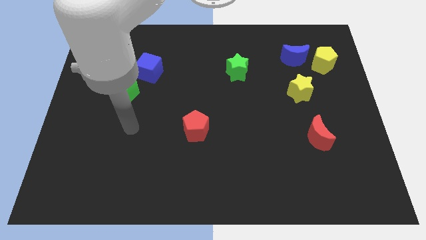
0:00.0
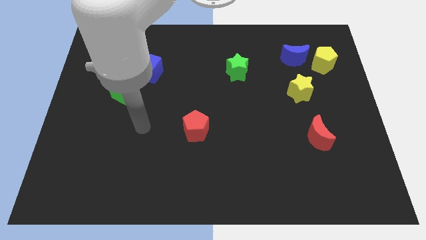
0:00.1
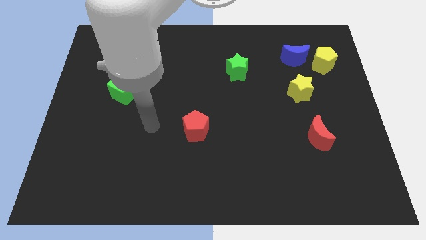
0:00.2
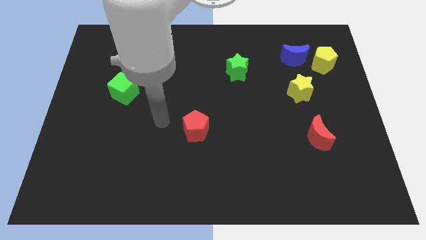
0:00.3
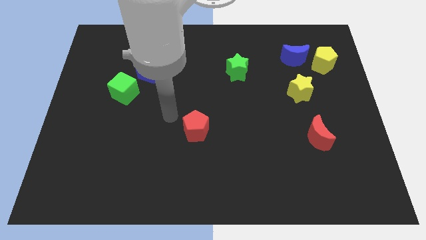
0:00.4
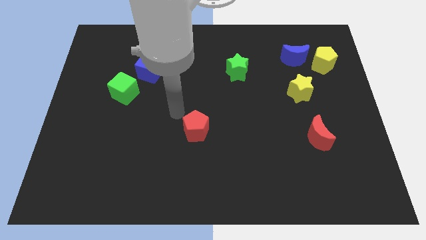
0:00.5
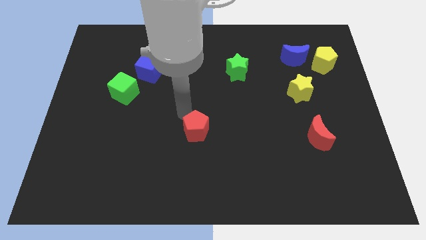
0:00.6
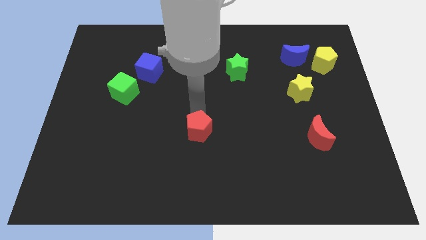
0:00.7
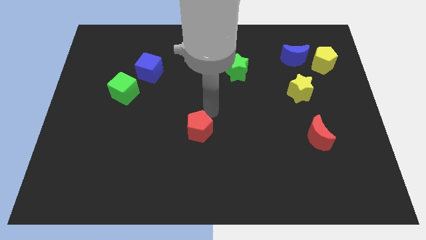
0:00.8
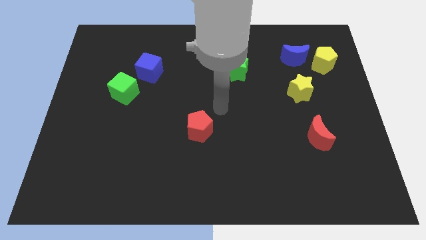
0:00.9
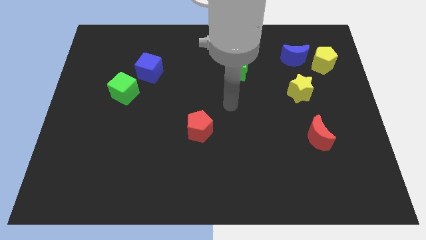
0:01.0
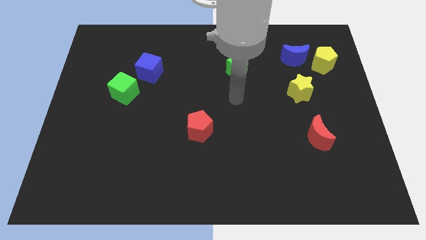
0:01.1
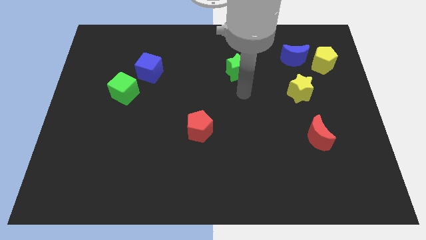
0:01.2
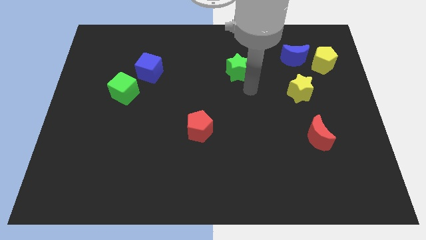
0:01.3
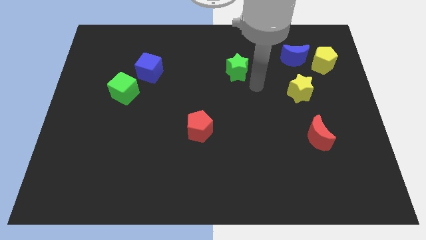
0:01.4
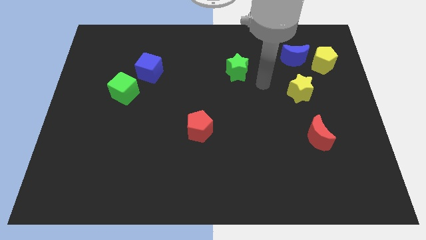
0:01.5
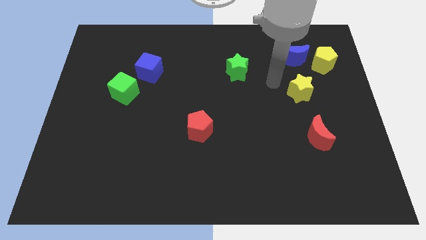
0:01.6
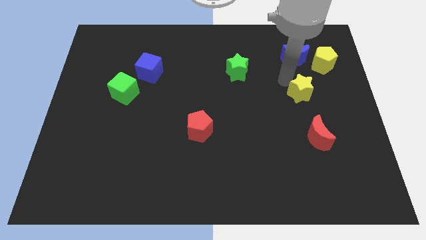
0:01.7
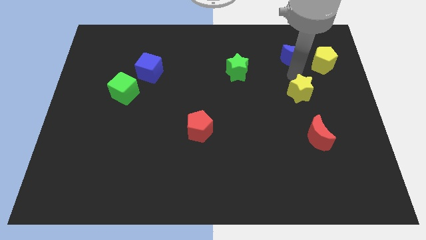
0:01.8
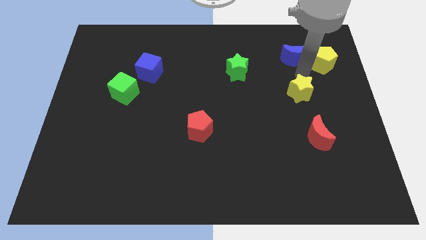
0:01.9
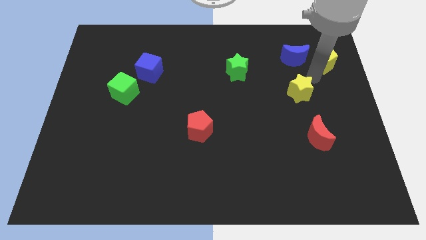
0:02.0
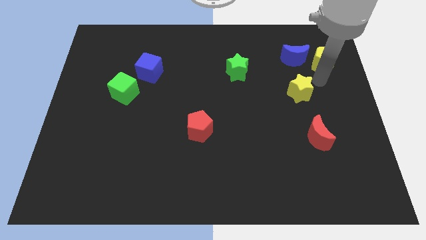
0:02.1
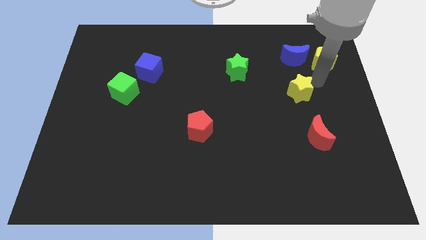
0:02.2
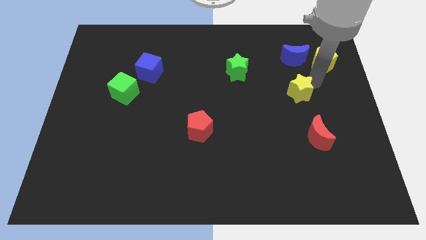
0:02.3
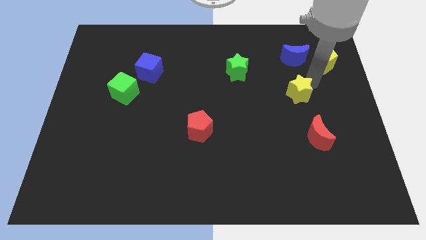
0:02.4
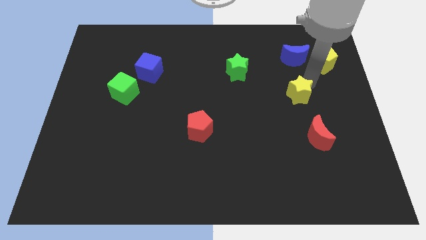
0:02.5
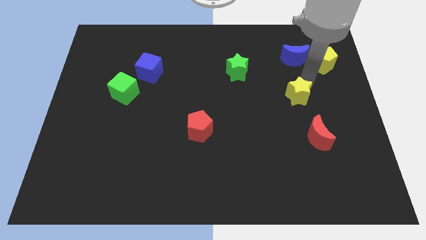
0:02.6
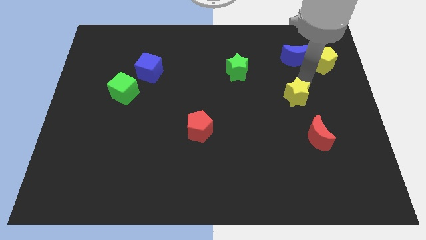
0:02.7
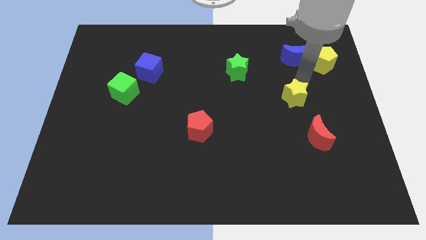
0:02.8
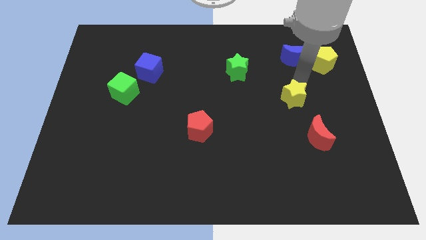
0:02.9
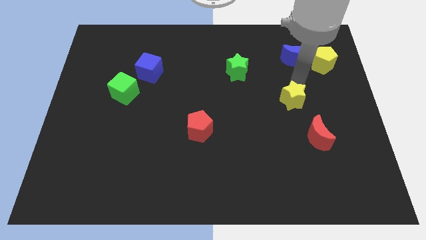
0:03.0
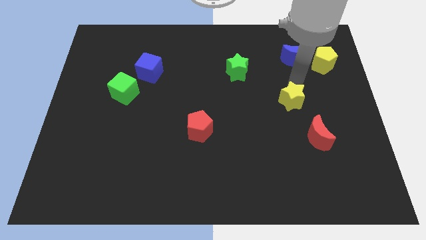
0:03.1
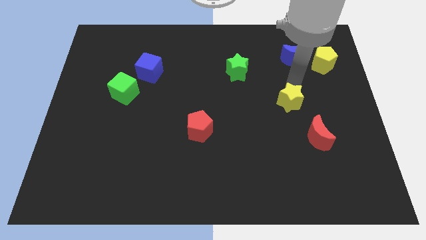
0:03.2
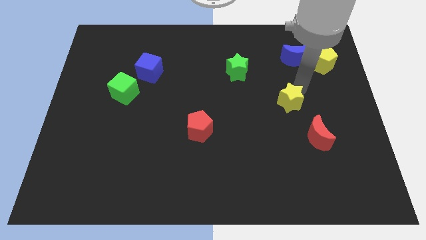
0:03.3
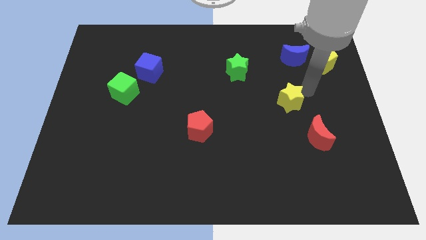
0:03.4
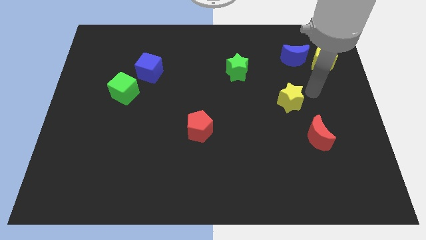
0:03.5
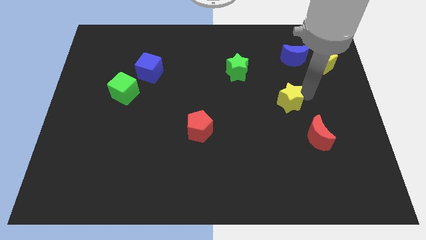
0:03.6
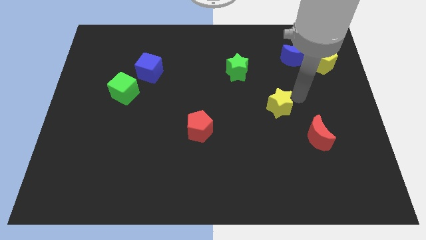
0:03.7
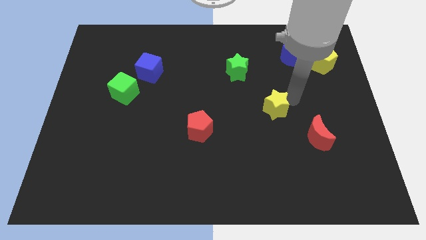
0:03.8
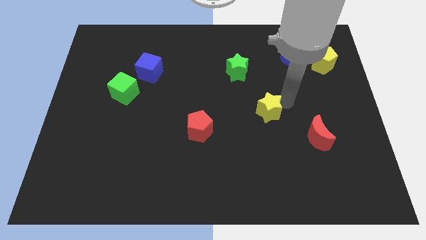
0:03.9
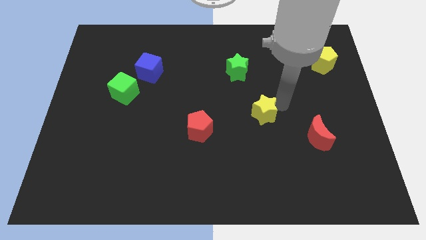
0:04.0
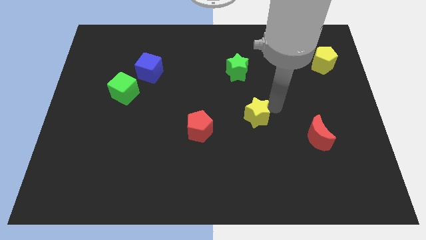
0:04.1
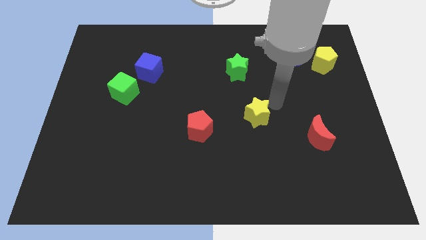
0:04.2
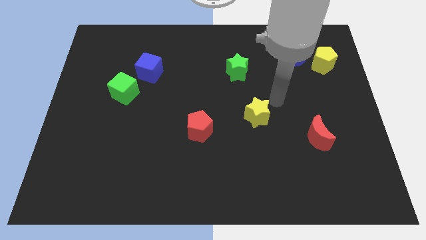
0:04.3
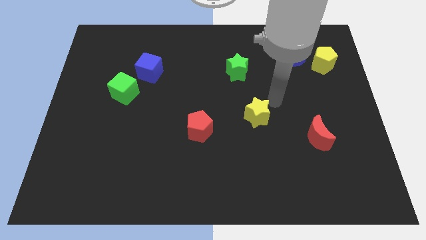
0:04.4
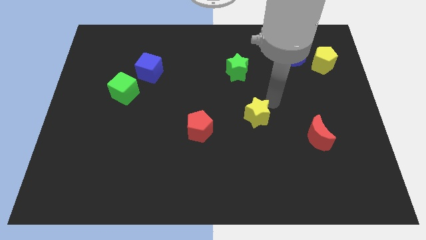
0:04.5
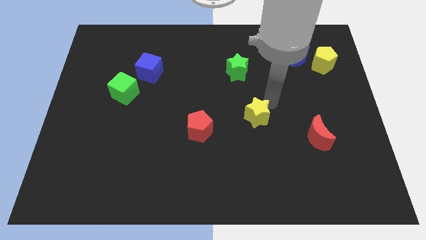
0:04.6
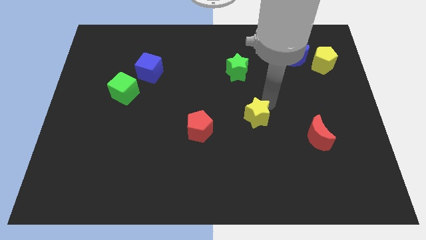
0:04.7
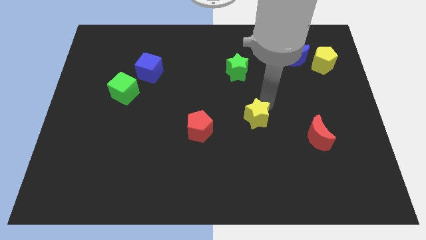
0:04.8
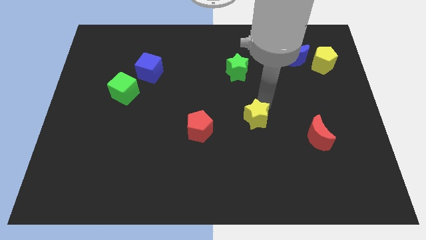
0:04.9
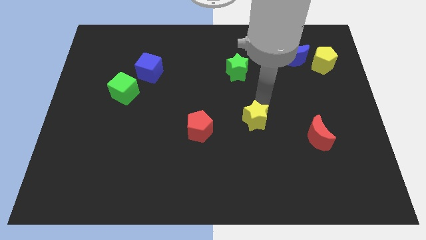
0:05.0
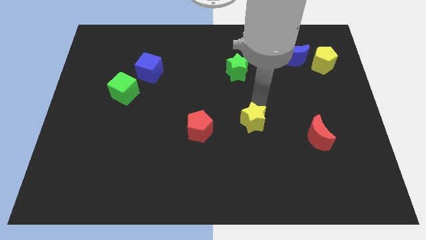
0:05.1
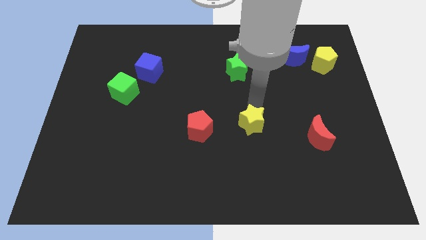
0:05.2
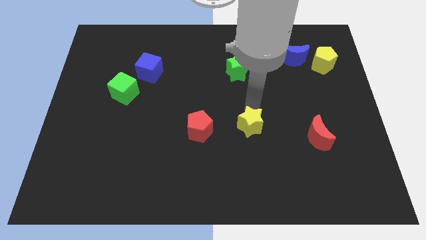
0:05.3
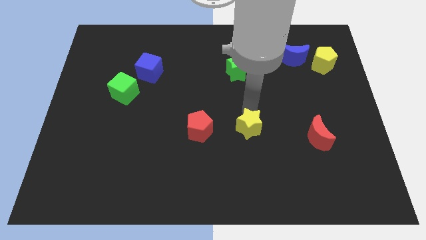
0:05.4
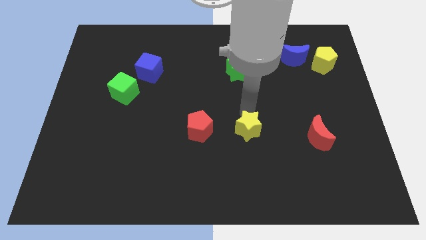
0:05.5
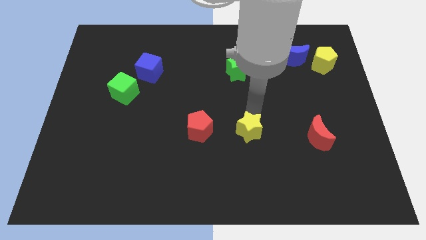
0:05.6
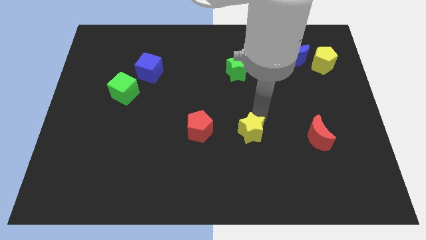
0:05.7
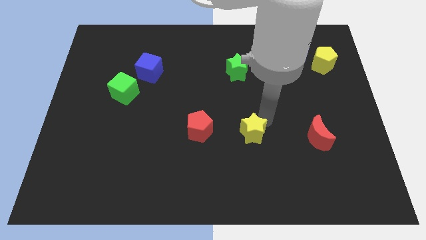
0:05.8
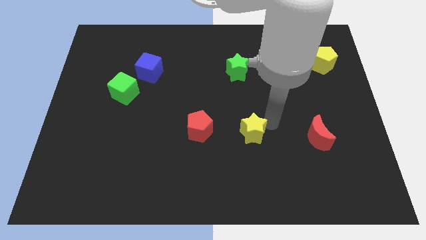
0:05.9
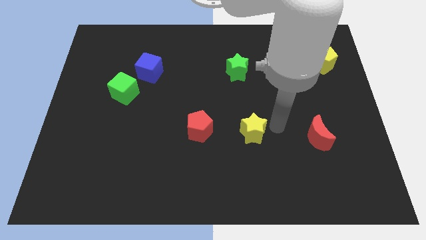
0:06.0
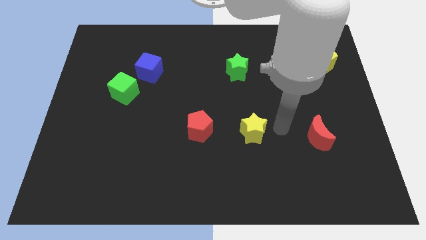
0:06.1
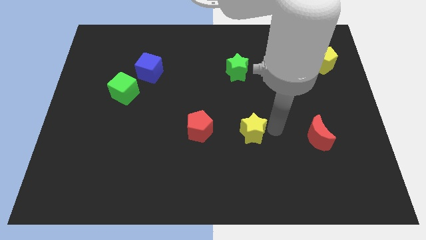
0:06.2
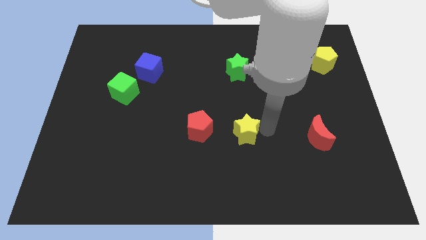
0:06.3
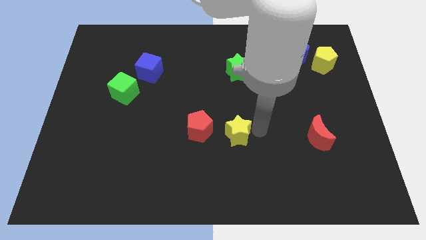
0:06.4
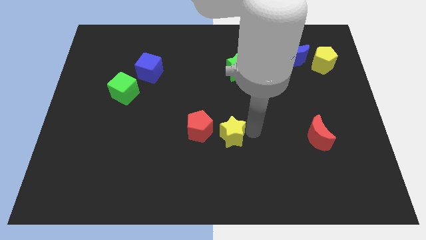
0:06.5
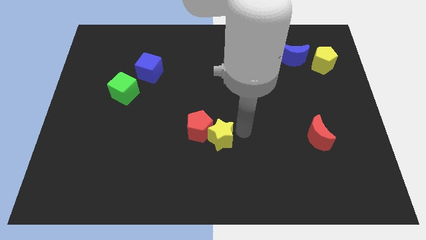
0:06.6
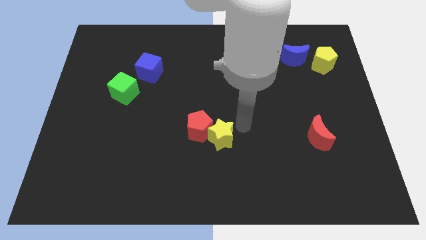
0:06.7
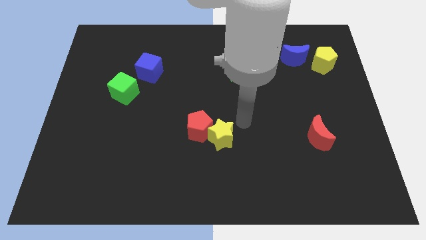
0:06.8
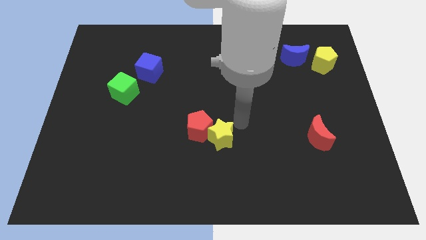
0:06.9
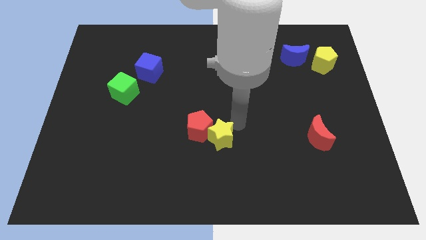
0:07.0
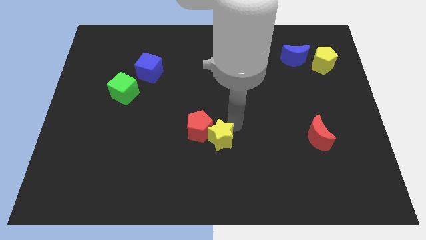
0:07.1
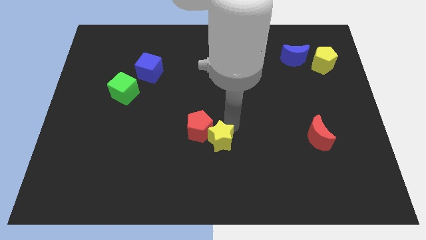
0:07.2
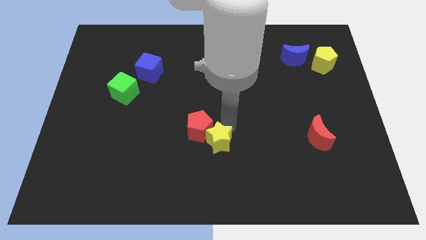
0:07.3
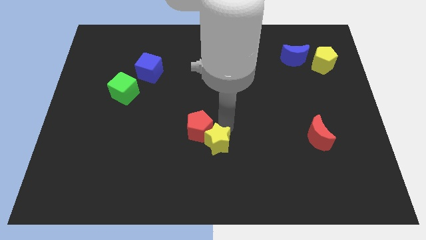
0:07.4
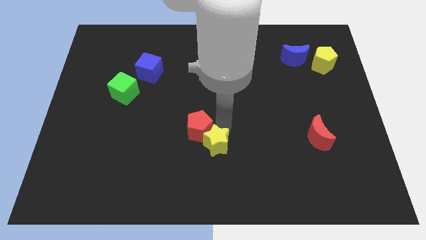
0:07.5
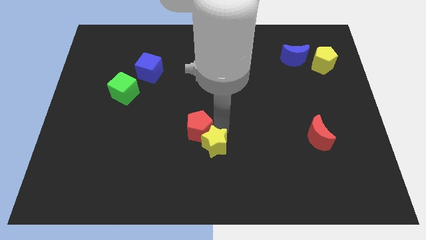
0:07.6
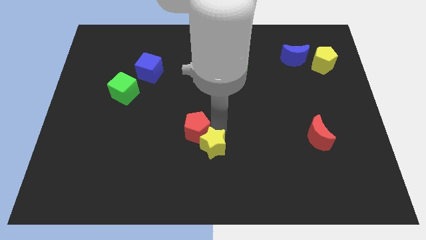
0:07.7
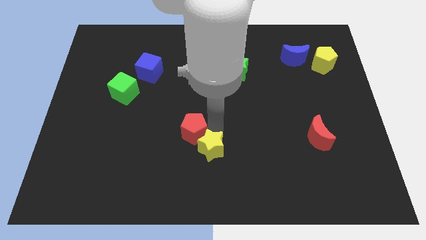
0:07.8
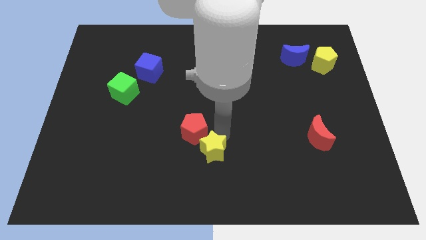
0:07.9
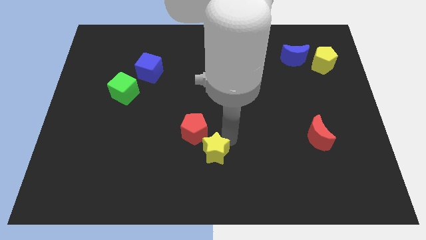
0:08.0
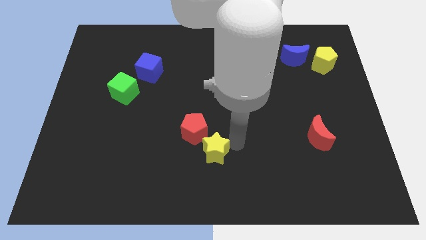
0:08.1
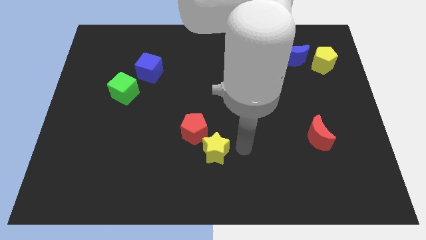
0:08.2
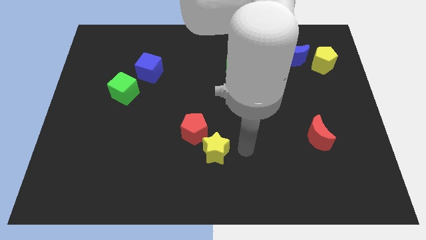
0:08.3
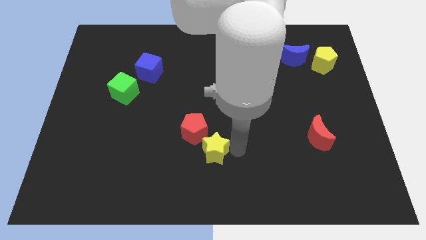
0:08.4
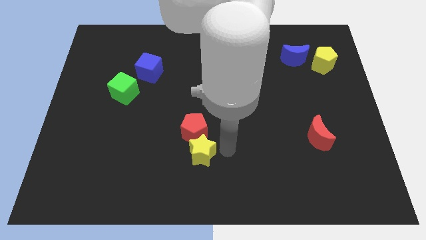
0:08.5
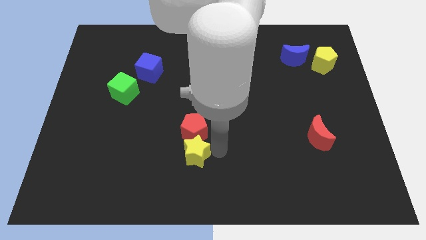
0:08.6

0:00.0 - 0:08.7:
put the yellow star diagonally down and to the left of the red pentagon
